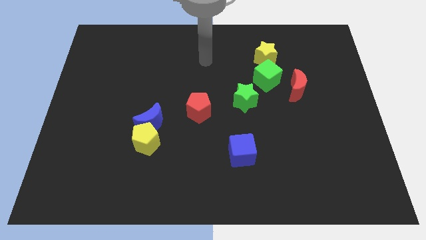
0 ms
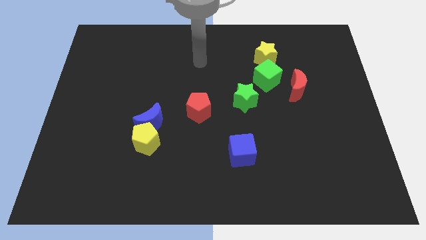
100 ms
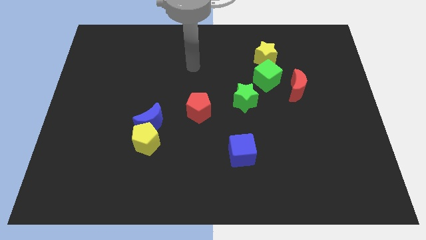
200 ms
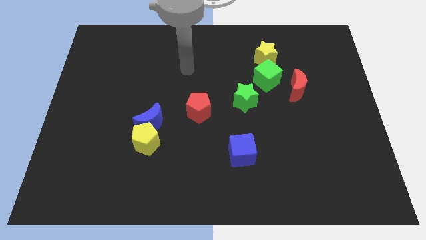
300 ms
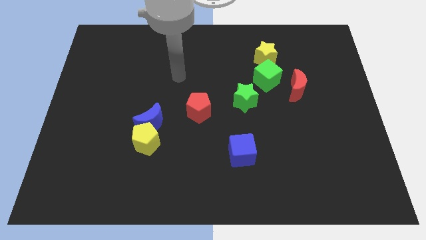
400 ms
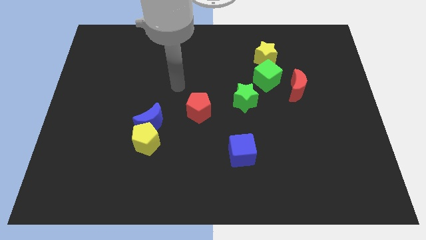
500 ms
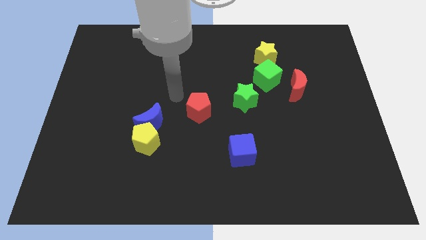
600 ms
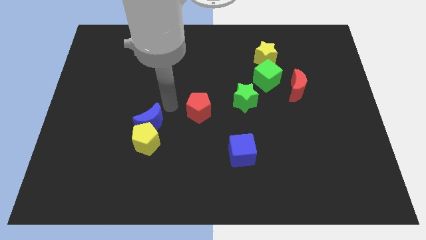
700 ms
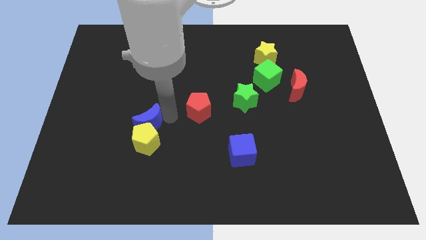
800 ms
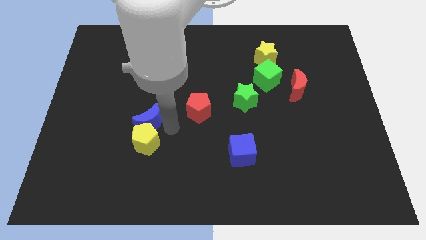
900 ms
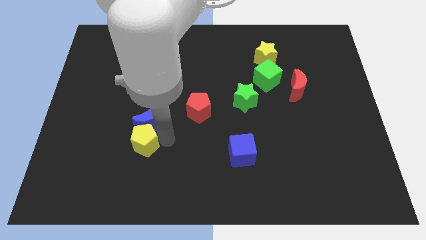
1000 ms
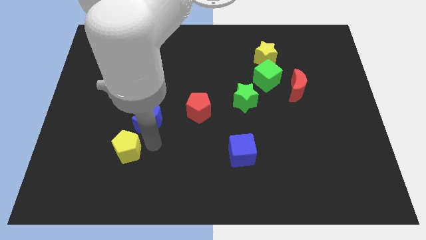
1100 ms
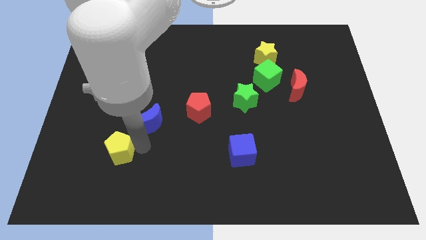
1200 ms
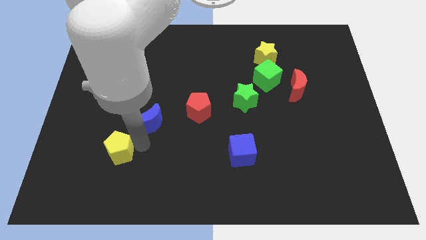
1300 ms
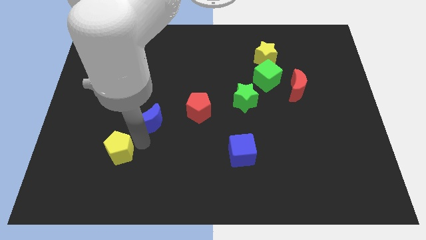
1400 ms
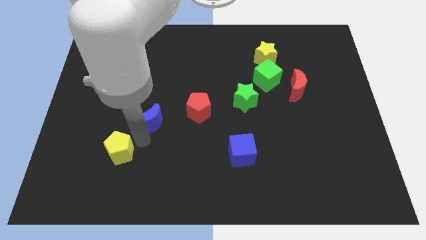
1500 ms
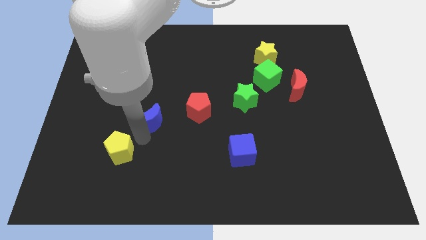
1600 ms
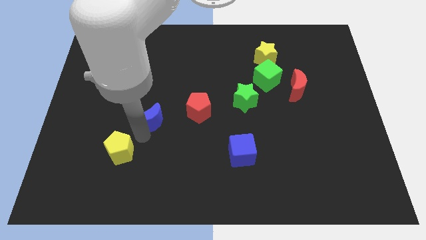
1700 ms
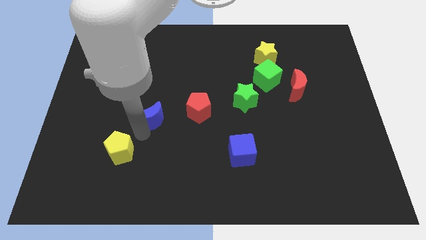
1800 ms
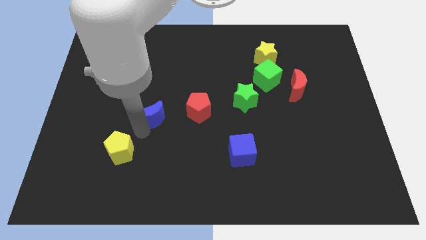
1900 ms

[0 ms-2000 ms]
move the blue moon away from the yellow pentagon

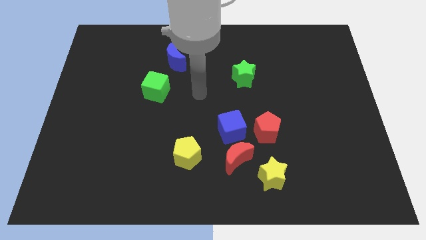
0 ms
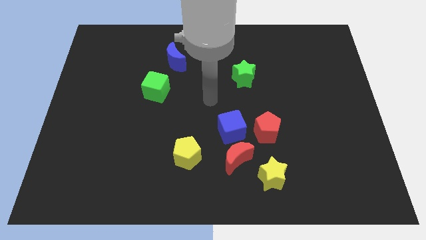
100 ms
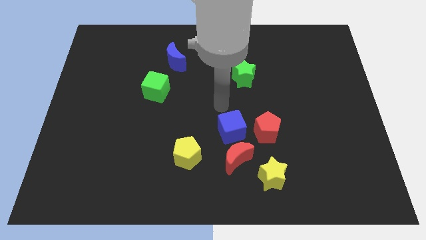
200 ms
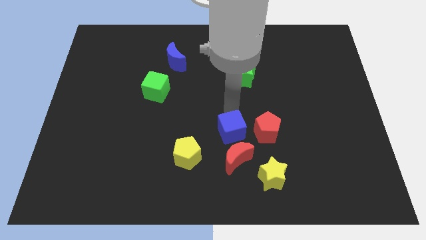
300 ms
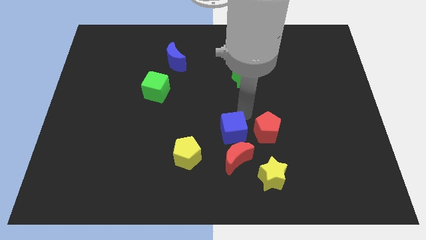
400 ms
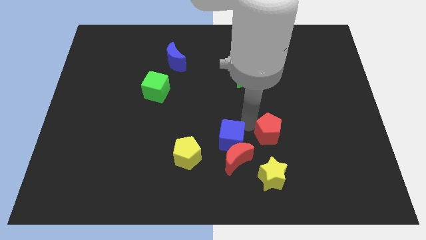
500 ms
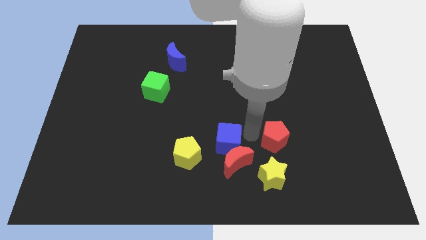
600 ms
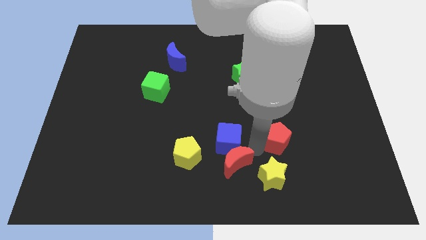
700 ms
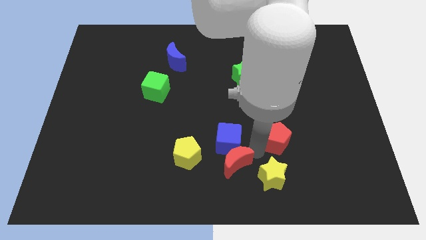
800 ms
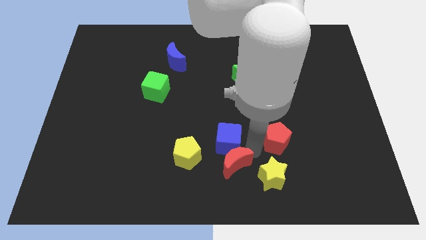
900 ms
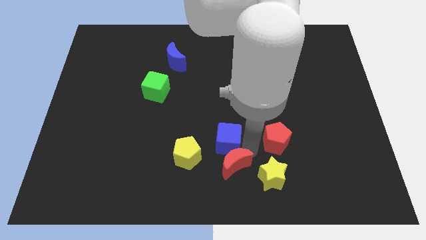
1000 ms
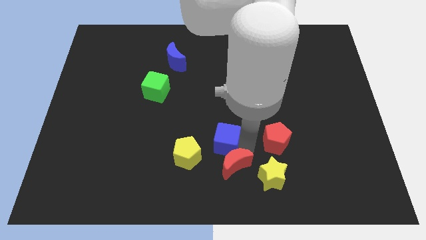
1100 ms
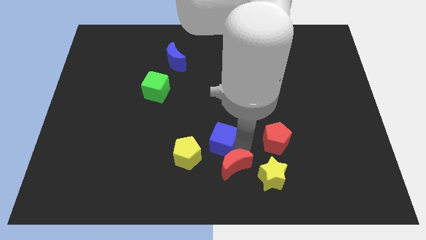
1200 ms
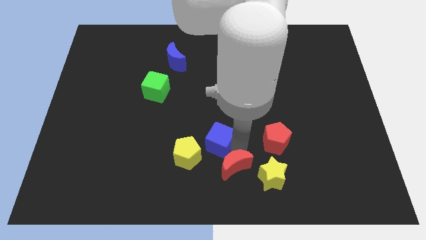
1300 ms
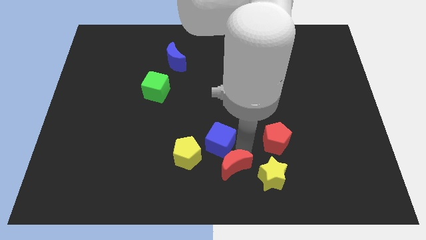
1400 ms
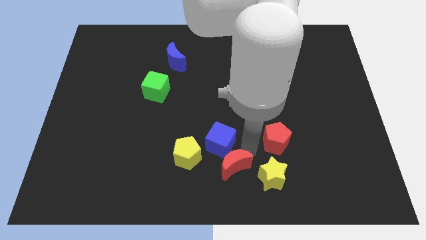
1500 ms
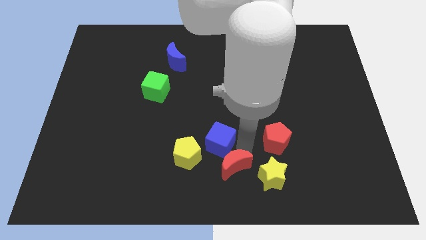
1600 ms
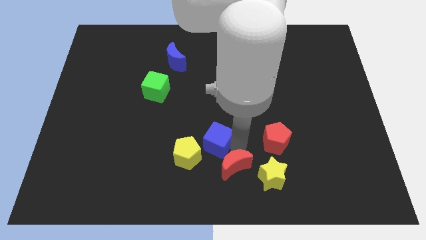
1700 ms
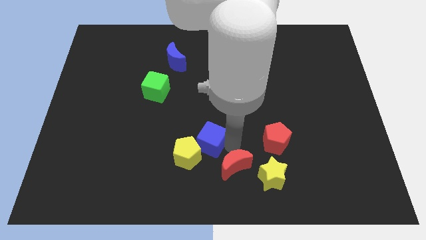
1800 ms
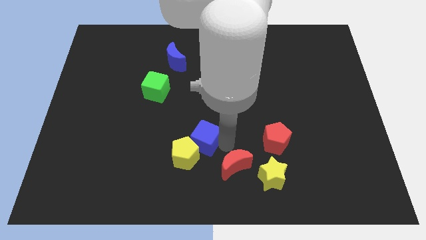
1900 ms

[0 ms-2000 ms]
pull the blue cube apart from the red moon and red pentagon

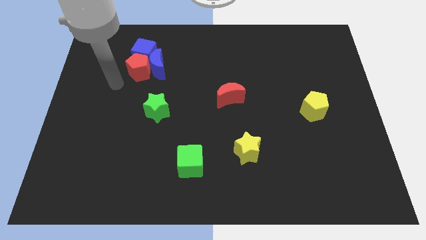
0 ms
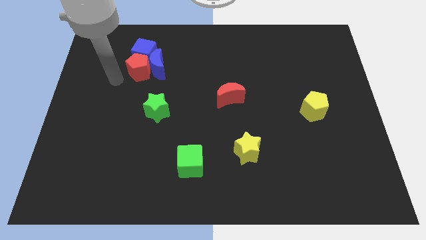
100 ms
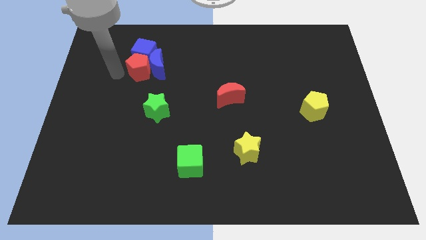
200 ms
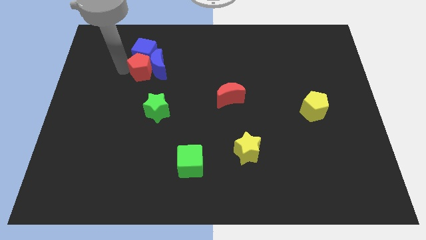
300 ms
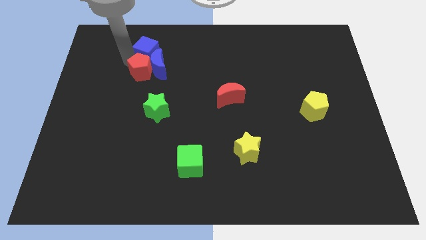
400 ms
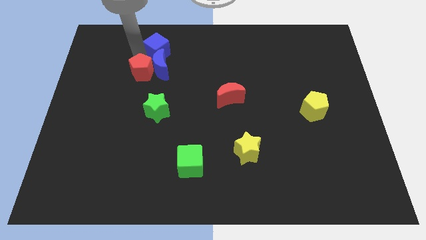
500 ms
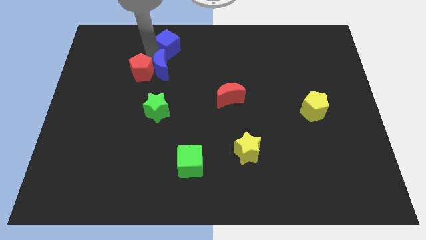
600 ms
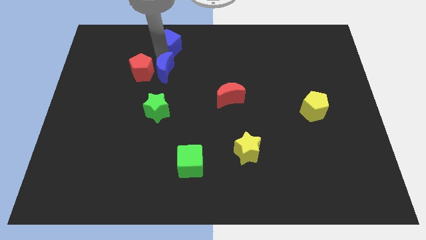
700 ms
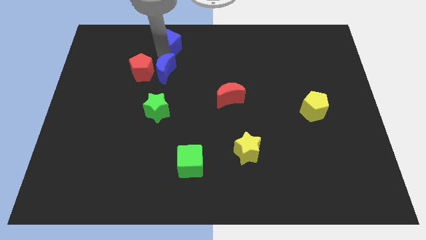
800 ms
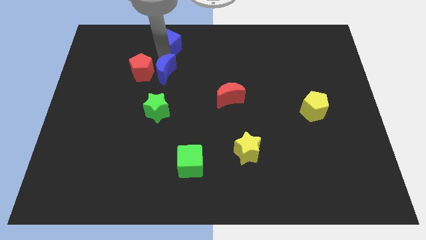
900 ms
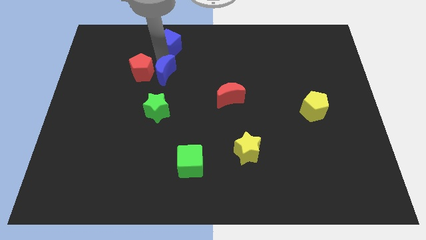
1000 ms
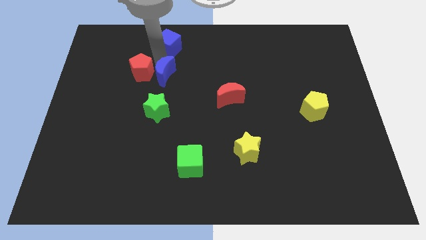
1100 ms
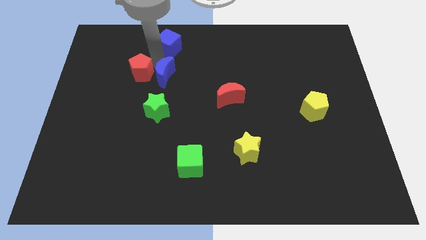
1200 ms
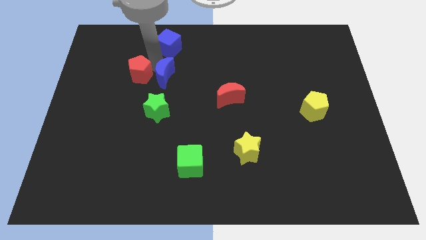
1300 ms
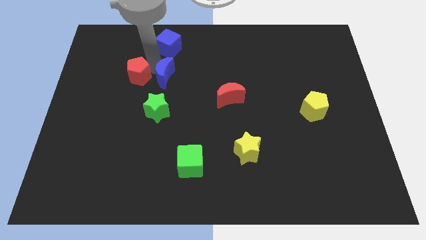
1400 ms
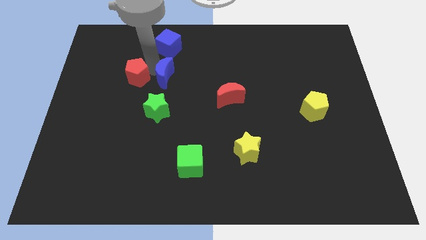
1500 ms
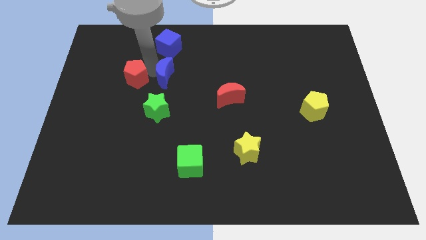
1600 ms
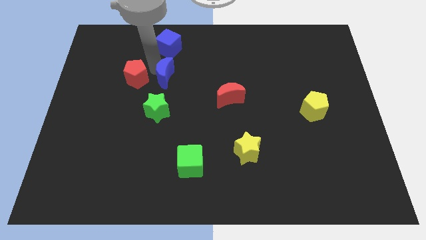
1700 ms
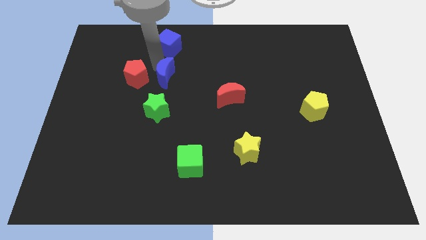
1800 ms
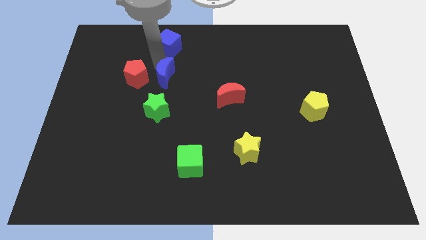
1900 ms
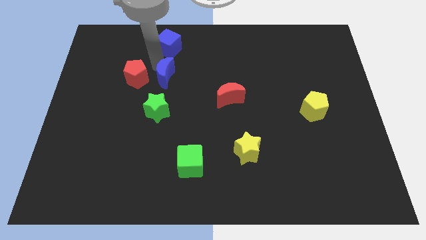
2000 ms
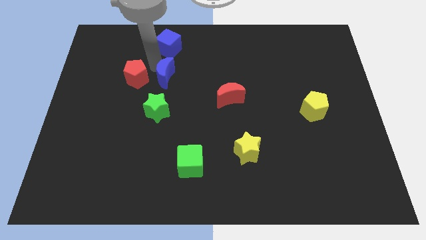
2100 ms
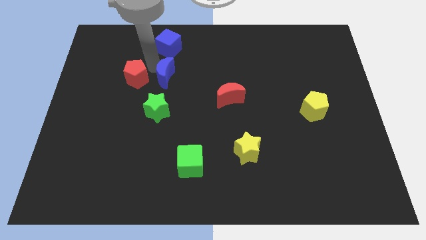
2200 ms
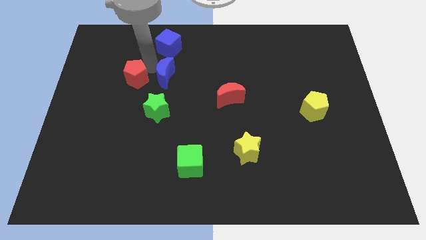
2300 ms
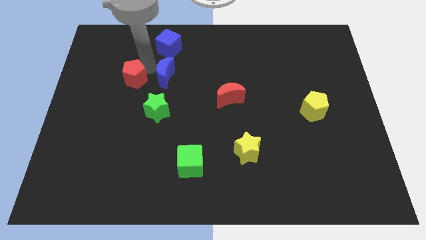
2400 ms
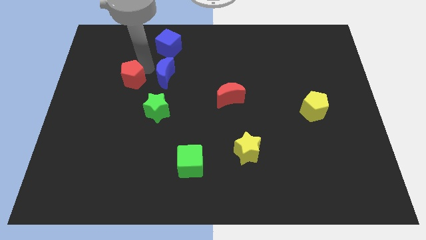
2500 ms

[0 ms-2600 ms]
move the red pentagon away from the blue moon and blue cube

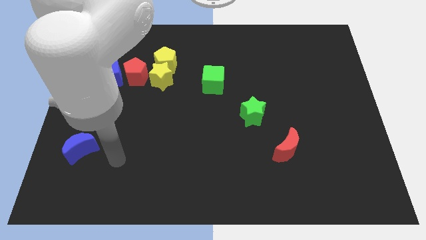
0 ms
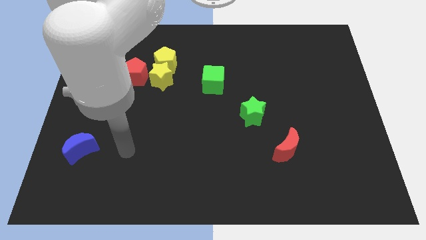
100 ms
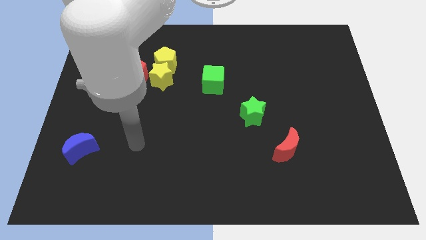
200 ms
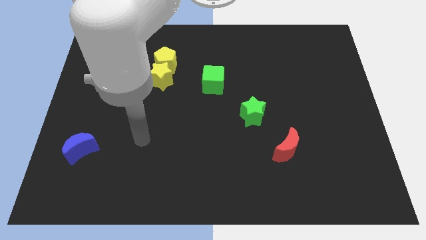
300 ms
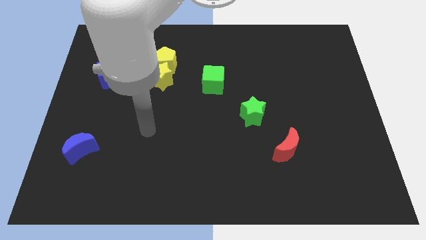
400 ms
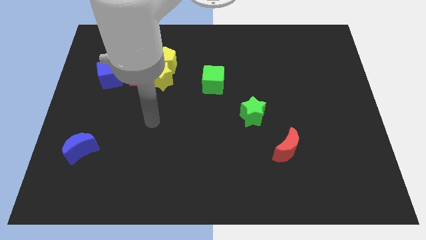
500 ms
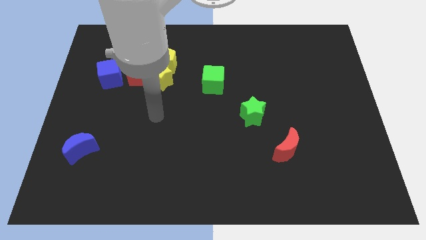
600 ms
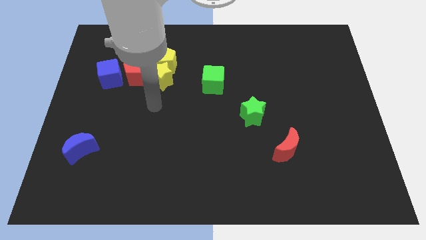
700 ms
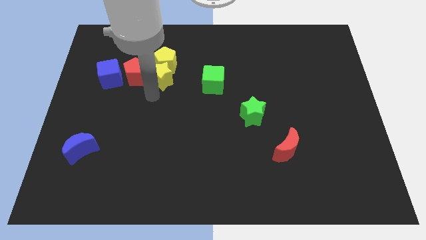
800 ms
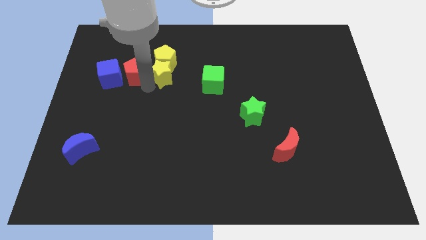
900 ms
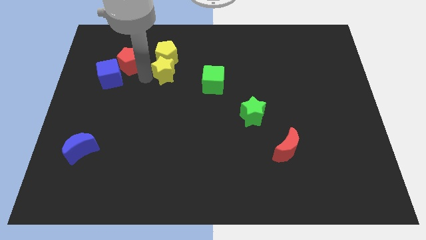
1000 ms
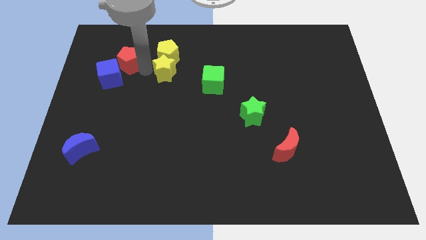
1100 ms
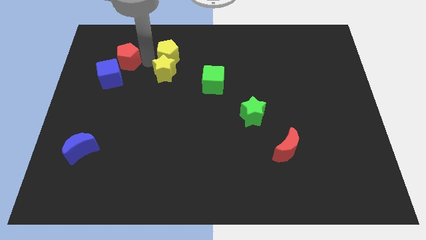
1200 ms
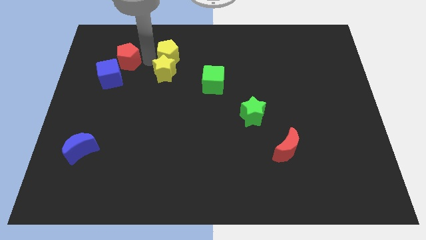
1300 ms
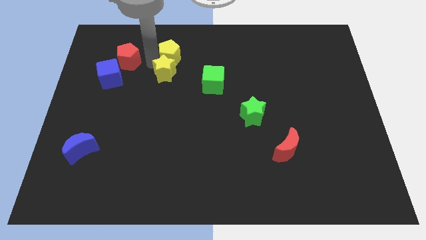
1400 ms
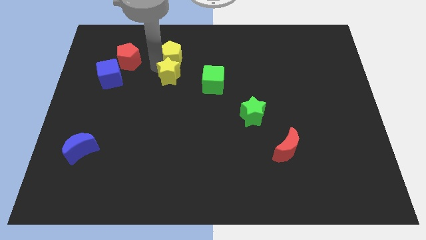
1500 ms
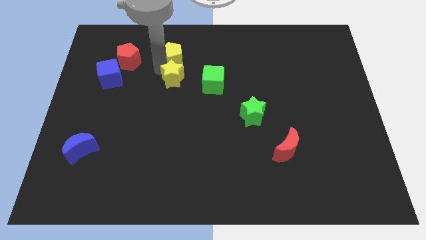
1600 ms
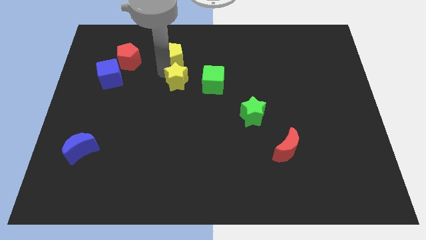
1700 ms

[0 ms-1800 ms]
move the yellow star away from the yellow pentagon and red pentagon

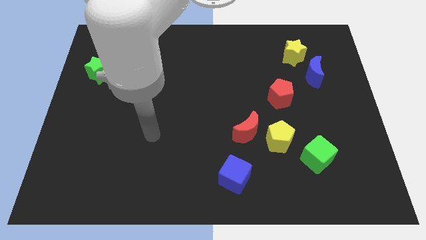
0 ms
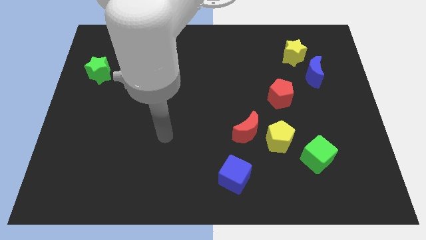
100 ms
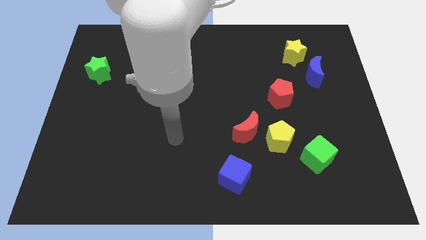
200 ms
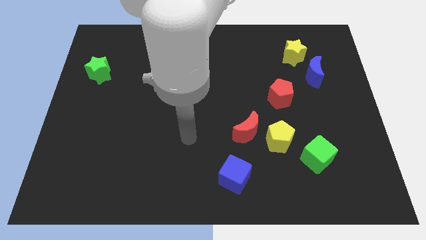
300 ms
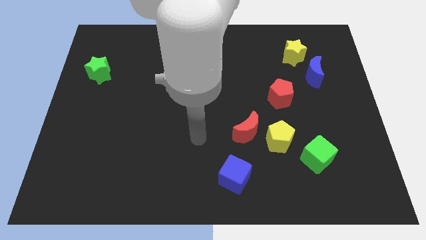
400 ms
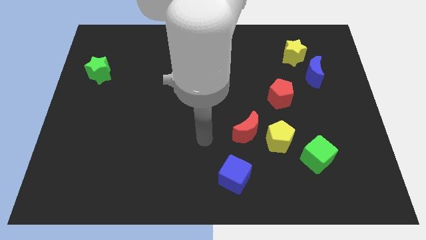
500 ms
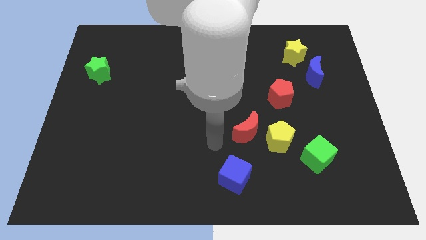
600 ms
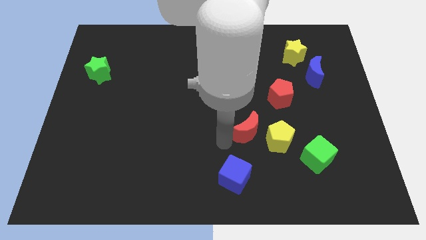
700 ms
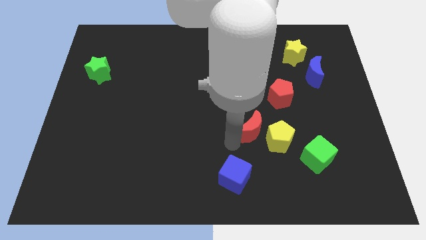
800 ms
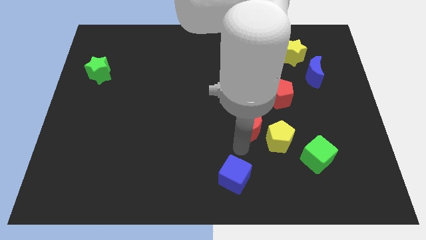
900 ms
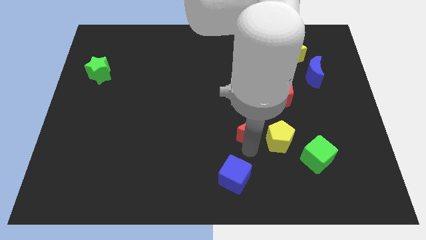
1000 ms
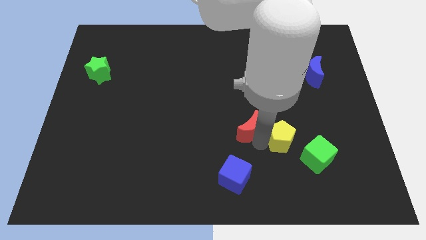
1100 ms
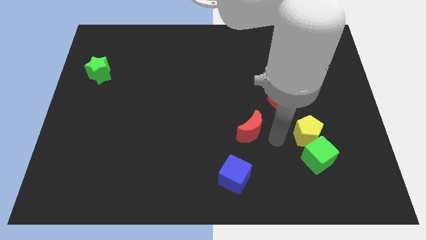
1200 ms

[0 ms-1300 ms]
pull the red moon apart from the yellow pentagon
